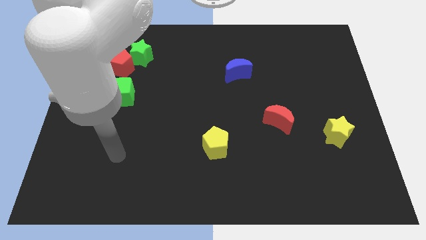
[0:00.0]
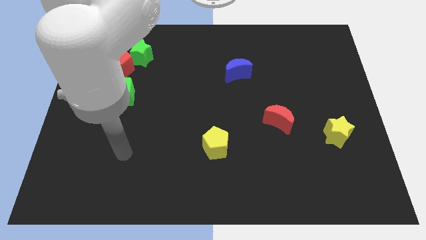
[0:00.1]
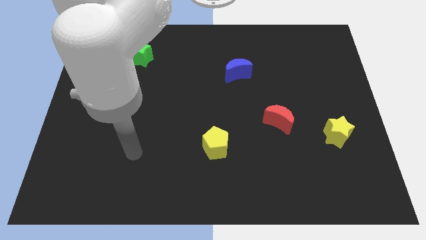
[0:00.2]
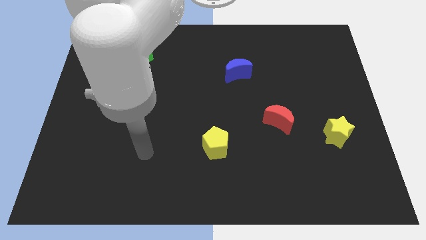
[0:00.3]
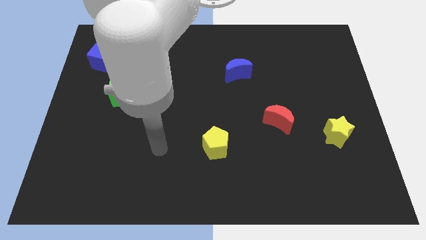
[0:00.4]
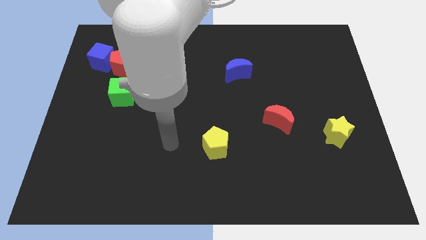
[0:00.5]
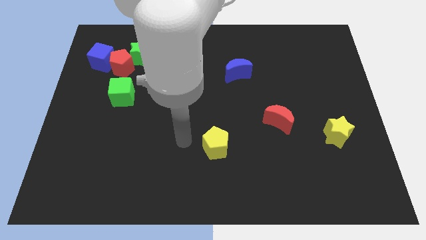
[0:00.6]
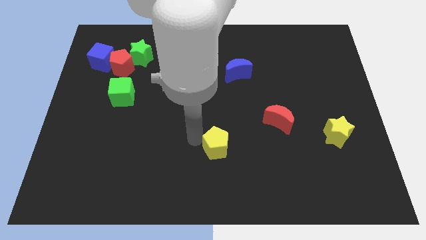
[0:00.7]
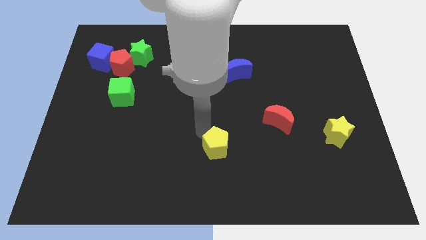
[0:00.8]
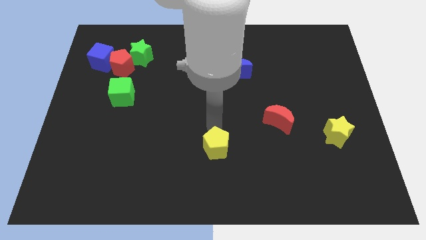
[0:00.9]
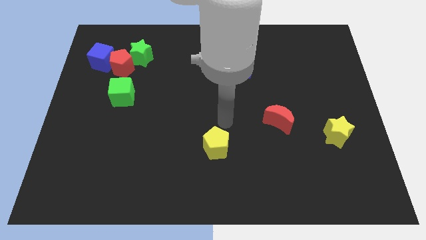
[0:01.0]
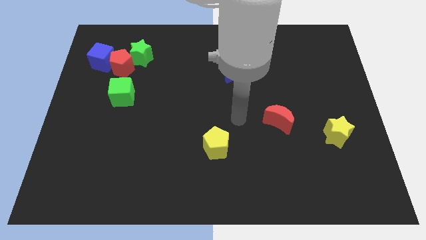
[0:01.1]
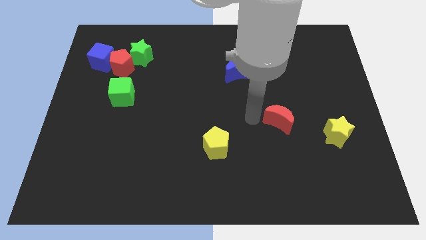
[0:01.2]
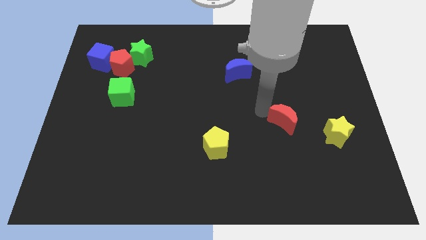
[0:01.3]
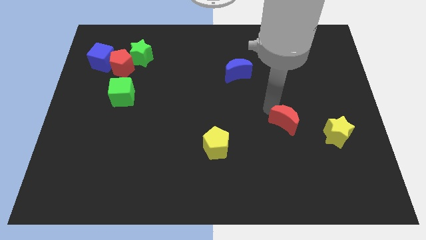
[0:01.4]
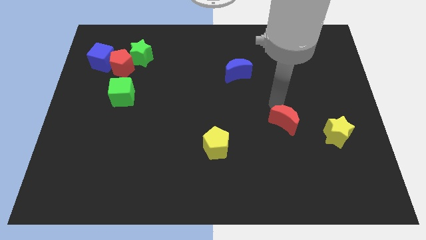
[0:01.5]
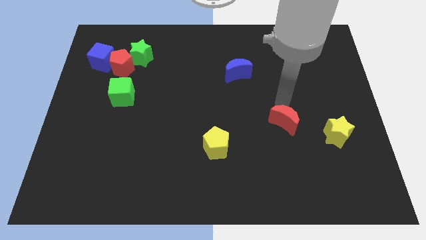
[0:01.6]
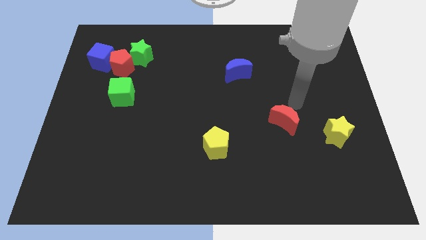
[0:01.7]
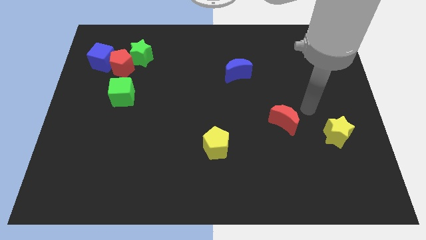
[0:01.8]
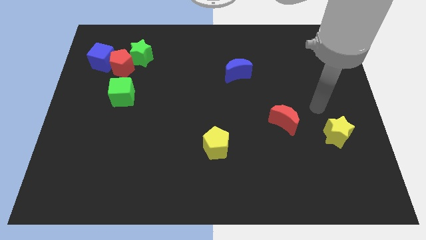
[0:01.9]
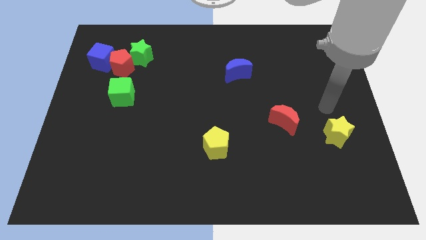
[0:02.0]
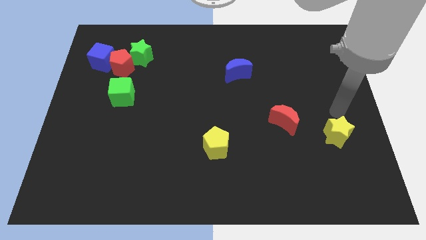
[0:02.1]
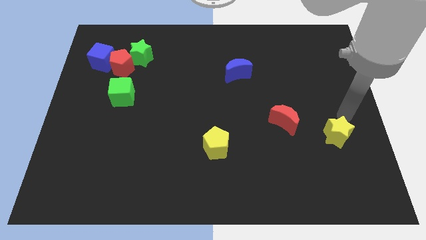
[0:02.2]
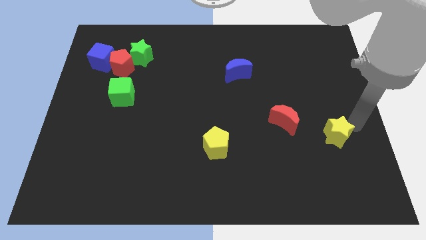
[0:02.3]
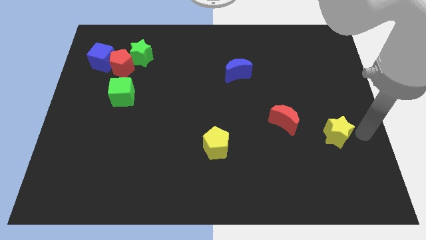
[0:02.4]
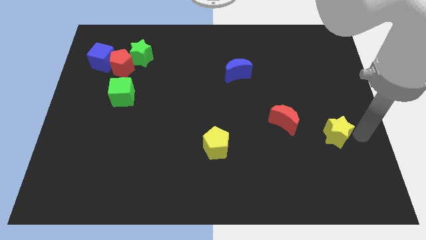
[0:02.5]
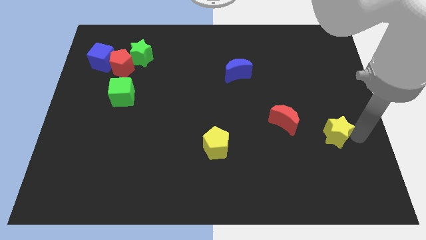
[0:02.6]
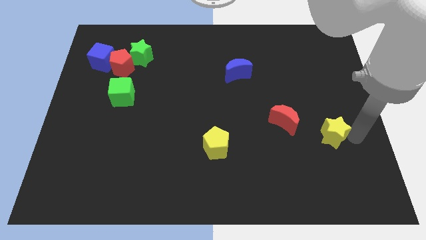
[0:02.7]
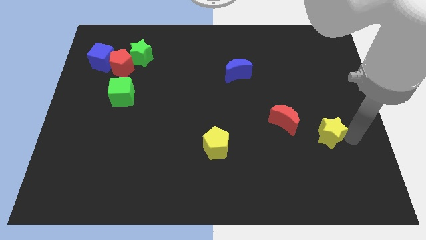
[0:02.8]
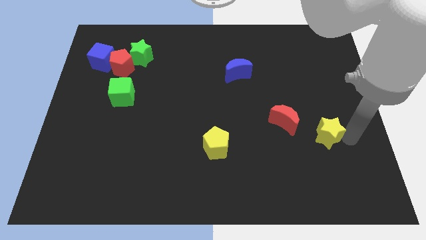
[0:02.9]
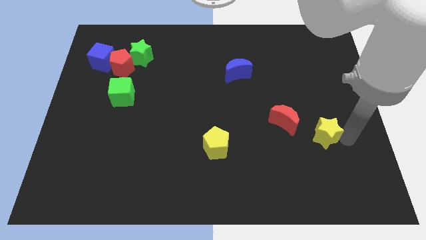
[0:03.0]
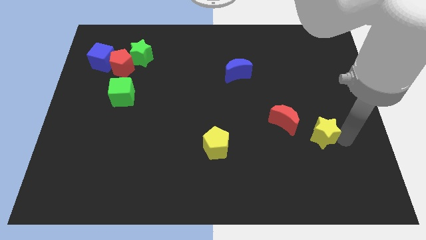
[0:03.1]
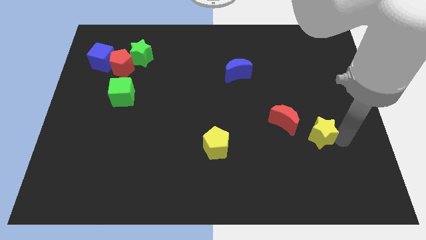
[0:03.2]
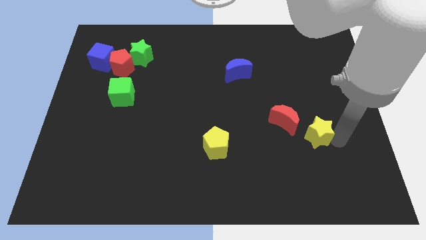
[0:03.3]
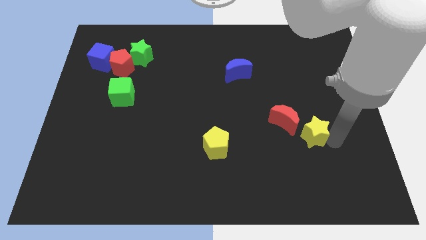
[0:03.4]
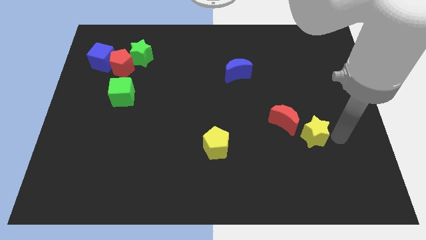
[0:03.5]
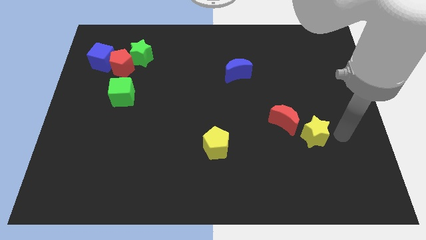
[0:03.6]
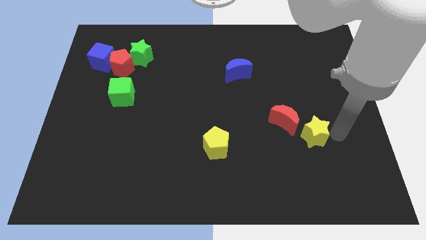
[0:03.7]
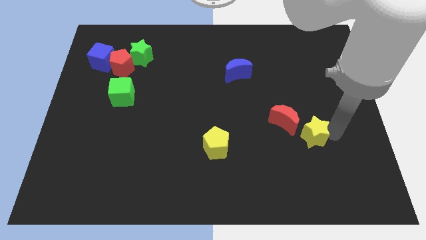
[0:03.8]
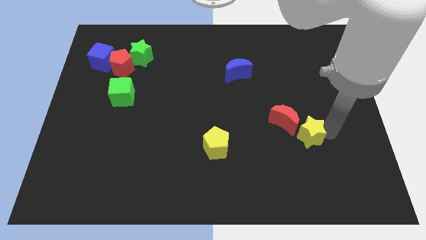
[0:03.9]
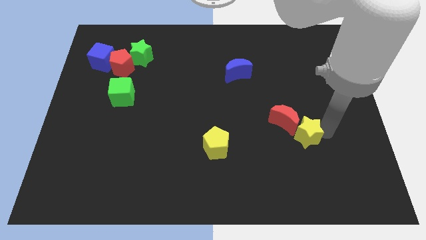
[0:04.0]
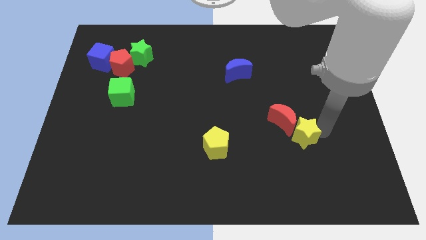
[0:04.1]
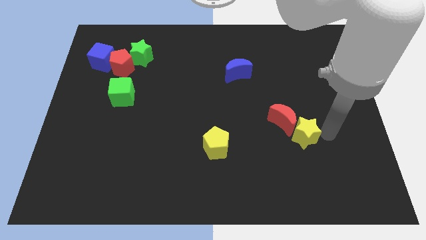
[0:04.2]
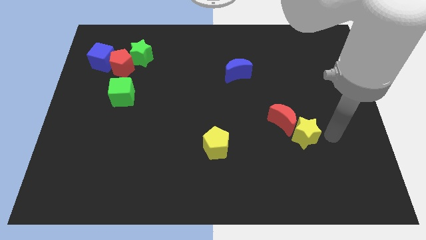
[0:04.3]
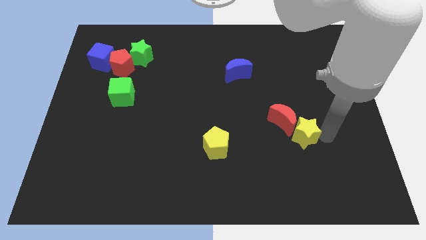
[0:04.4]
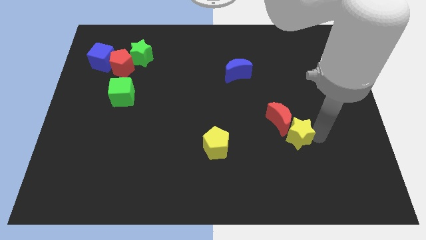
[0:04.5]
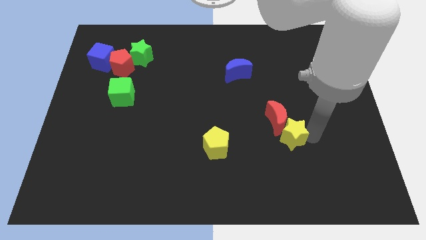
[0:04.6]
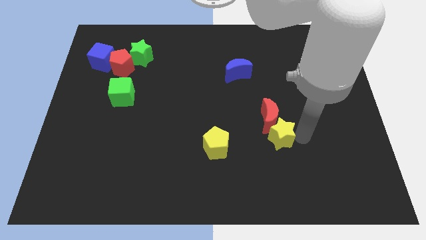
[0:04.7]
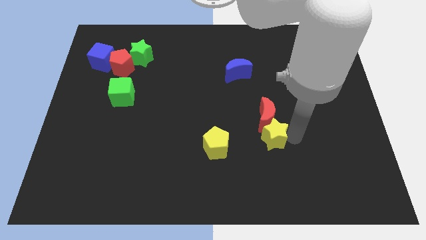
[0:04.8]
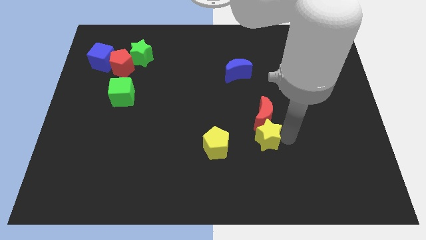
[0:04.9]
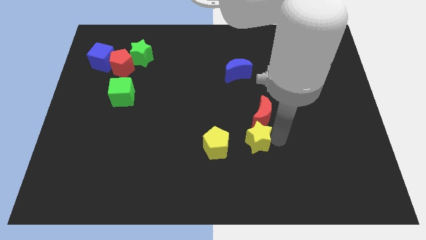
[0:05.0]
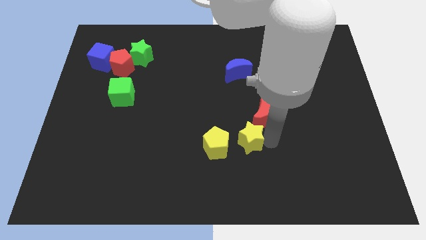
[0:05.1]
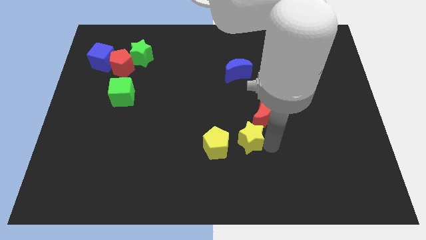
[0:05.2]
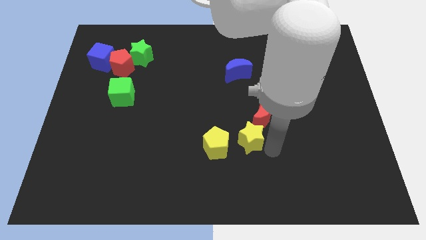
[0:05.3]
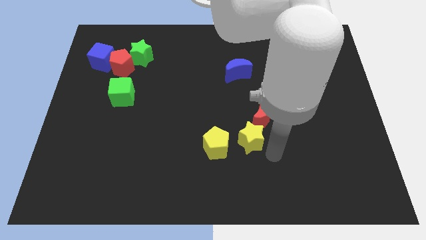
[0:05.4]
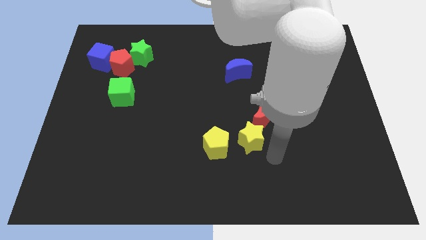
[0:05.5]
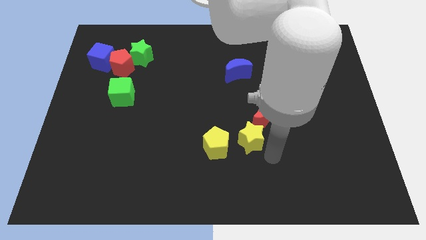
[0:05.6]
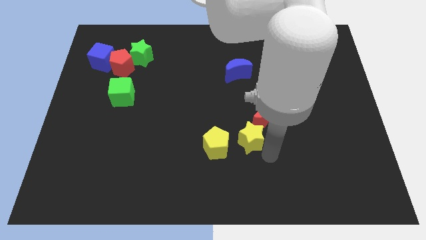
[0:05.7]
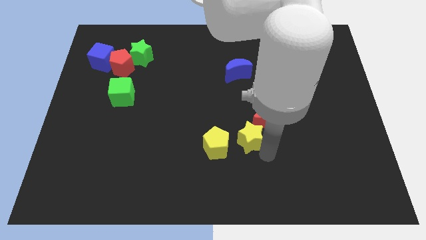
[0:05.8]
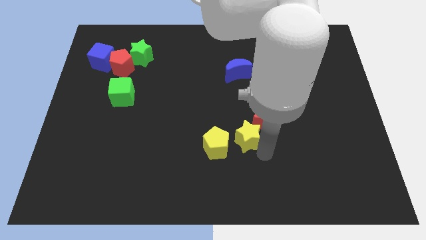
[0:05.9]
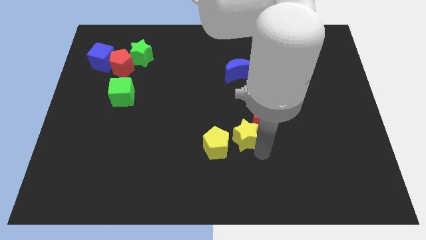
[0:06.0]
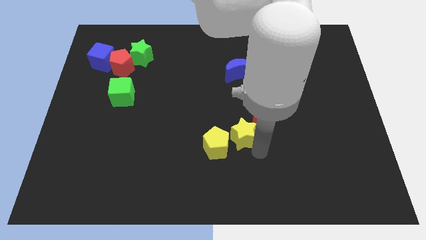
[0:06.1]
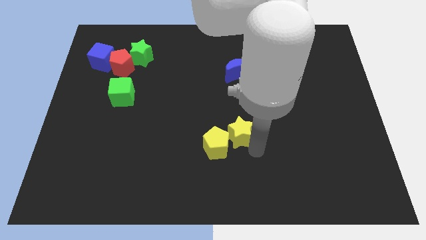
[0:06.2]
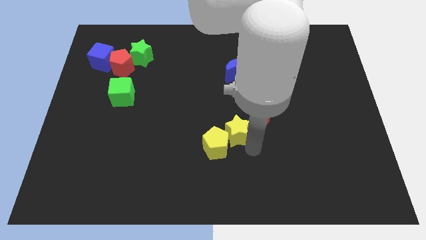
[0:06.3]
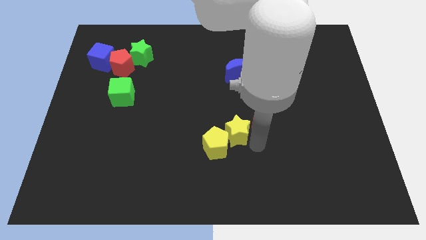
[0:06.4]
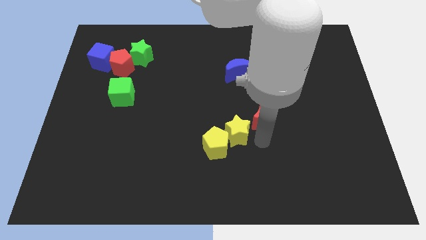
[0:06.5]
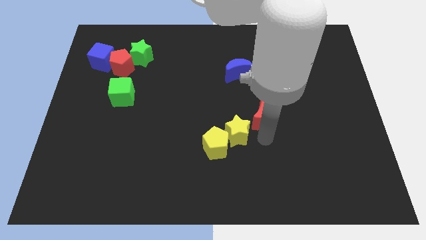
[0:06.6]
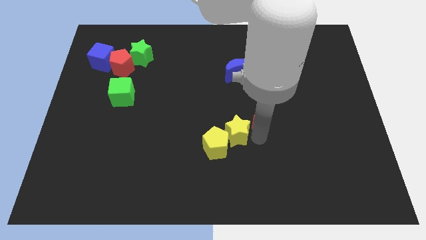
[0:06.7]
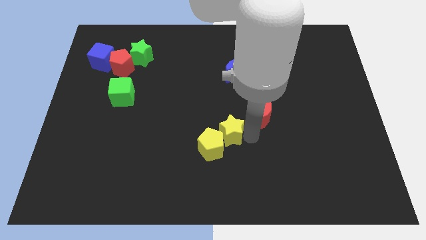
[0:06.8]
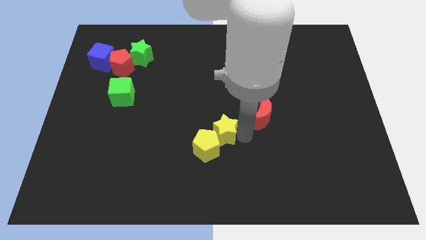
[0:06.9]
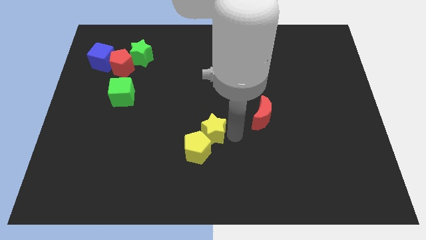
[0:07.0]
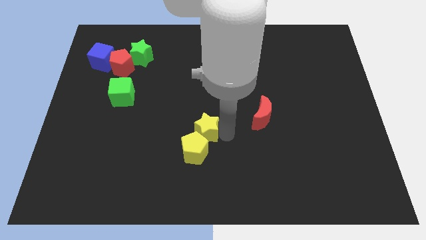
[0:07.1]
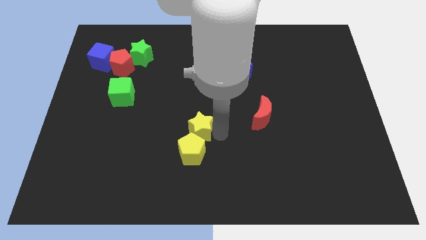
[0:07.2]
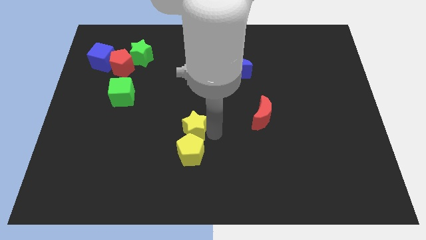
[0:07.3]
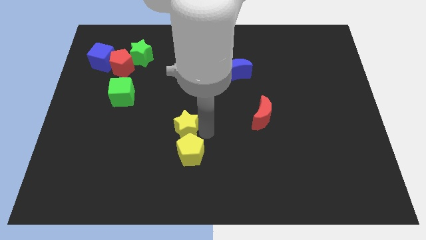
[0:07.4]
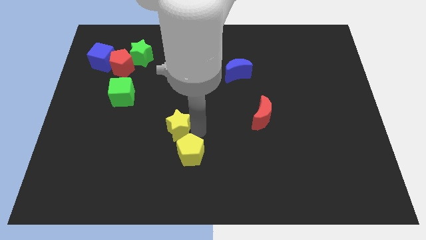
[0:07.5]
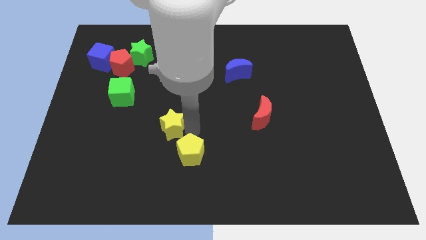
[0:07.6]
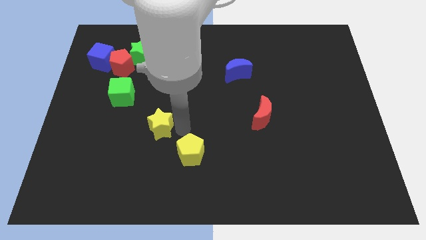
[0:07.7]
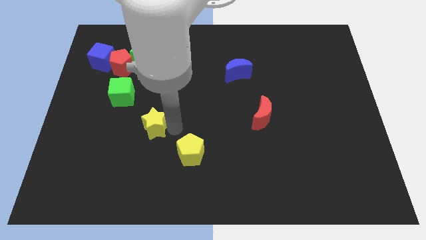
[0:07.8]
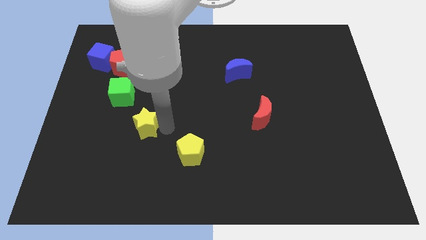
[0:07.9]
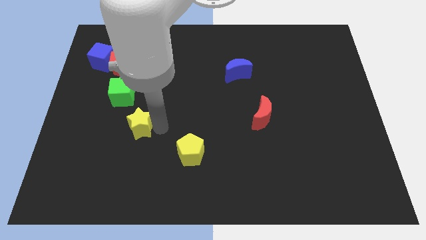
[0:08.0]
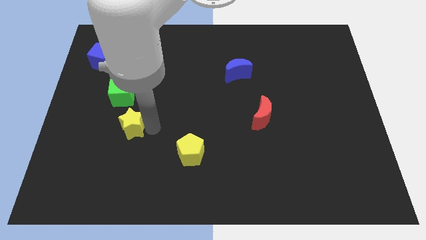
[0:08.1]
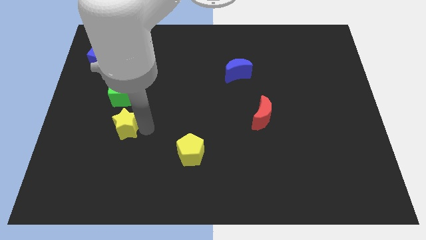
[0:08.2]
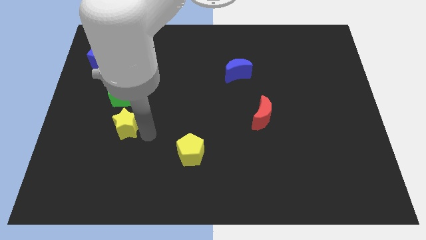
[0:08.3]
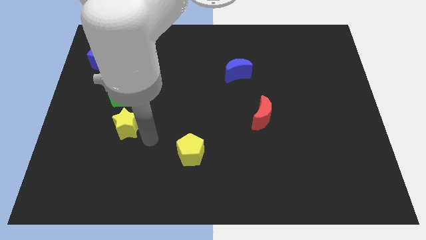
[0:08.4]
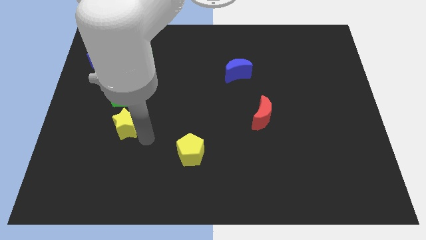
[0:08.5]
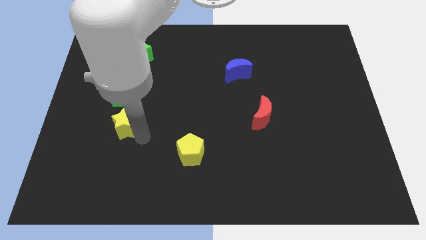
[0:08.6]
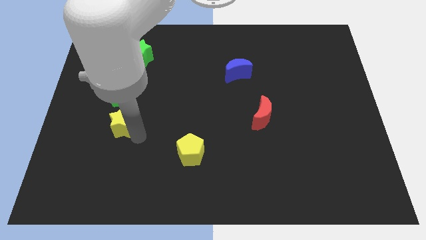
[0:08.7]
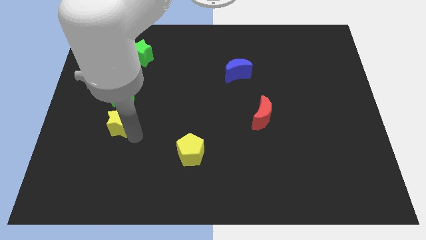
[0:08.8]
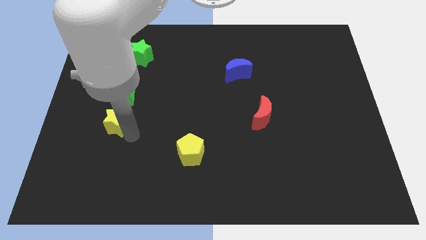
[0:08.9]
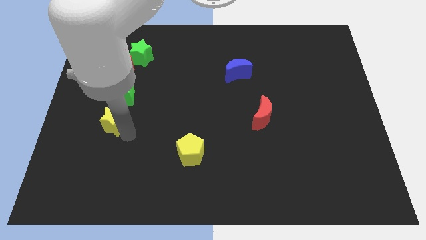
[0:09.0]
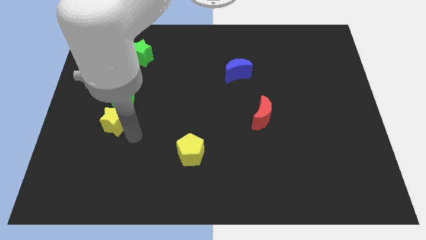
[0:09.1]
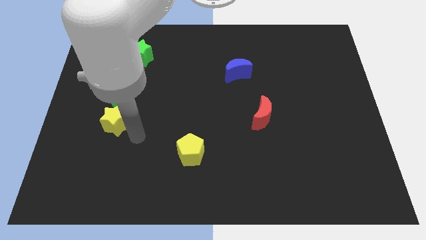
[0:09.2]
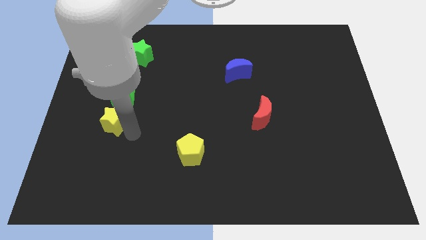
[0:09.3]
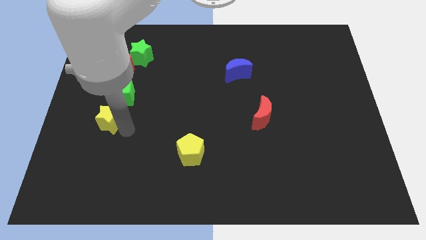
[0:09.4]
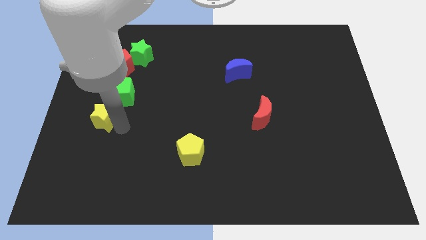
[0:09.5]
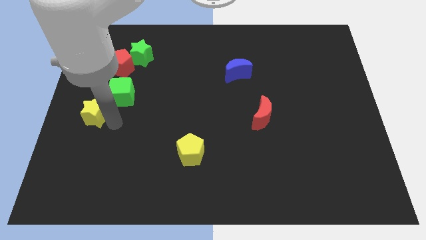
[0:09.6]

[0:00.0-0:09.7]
slide the yellow star to the left side of the board
